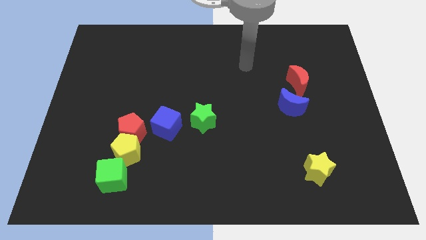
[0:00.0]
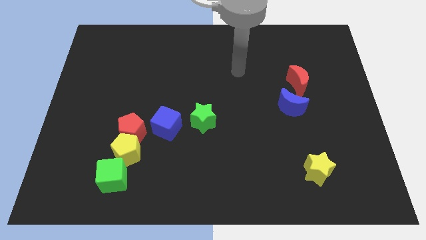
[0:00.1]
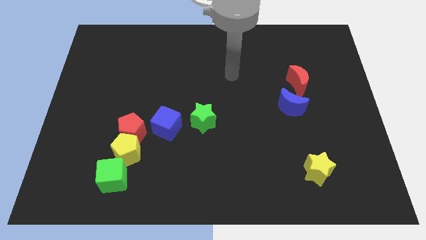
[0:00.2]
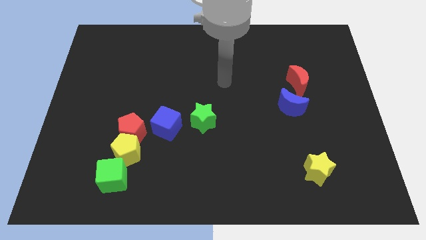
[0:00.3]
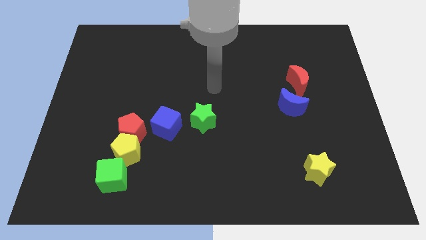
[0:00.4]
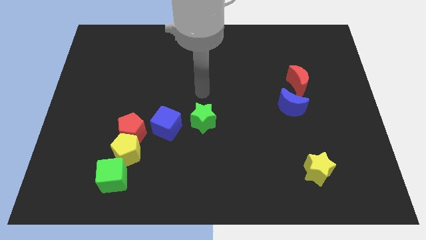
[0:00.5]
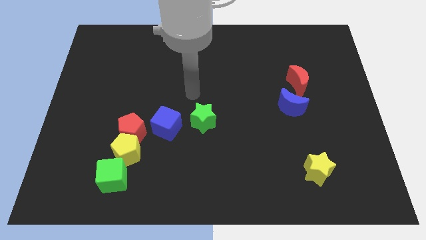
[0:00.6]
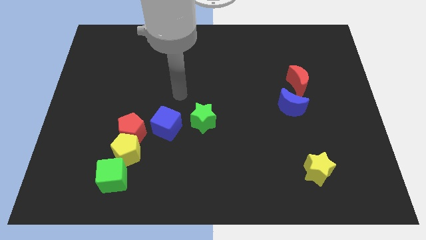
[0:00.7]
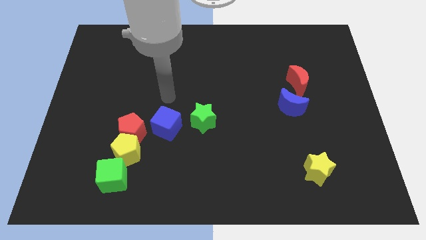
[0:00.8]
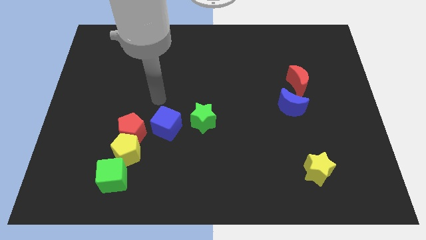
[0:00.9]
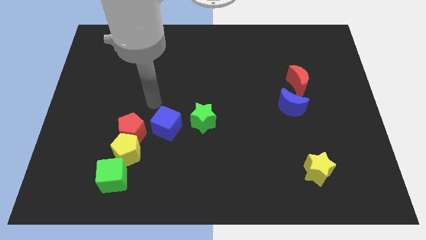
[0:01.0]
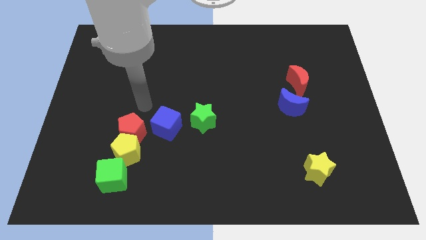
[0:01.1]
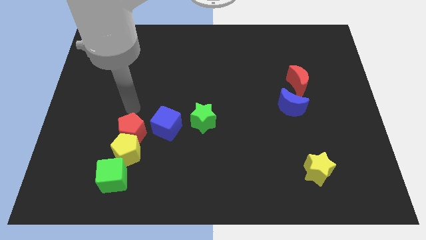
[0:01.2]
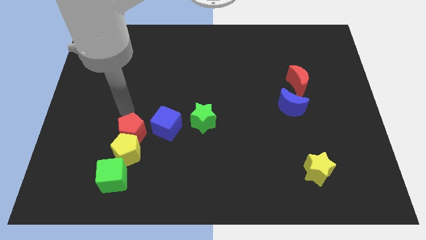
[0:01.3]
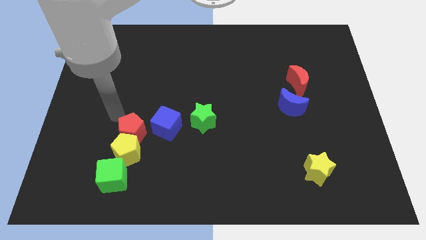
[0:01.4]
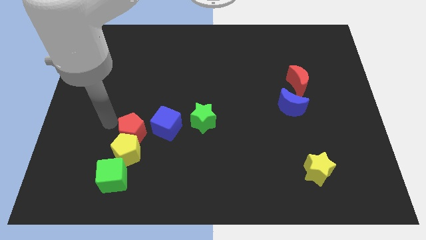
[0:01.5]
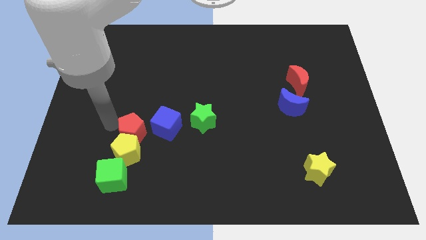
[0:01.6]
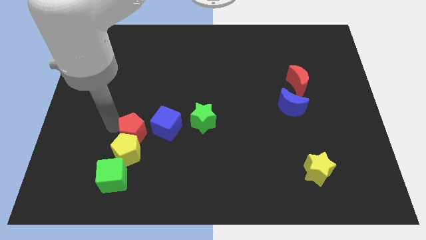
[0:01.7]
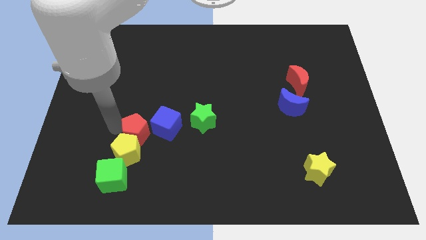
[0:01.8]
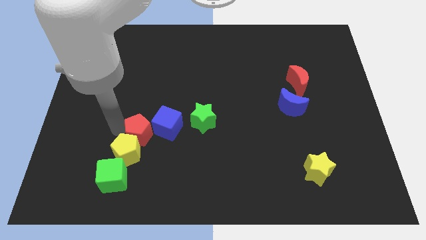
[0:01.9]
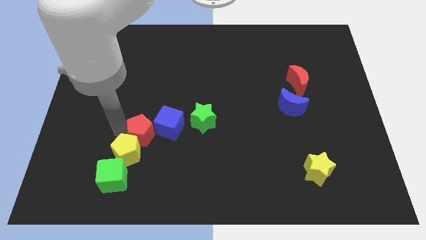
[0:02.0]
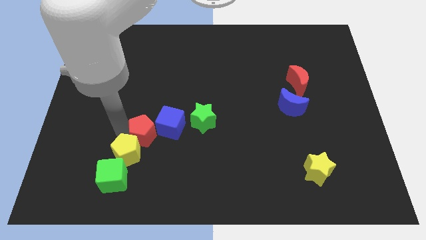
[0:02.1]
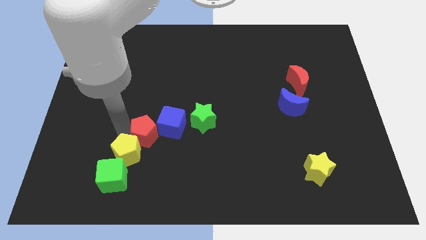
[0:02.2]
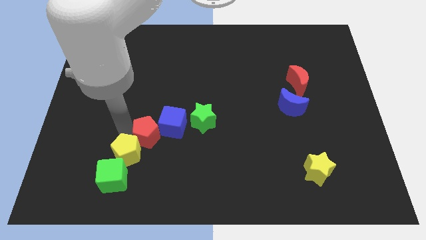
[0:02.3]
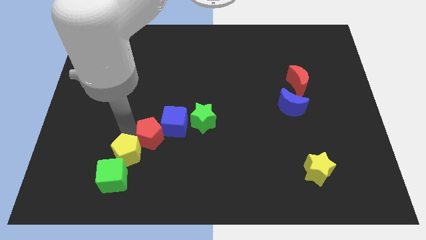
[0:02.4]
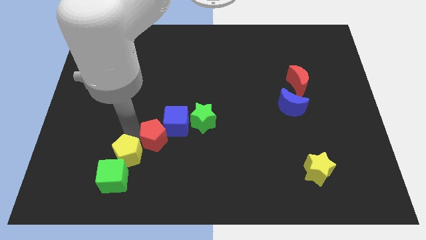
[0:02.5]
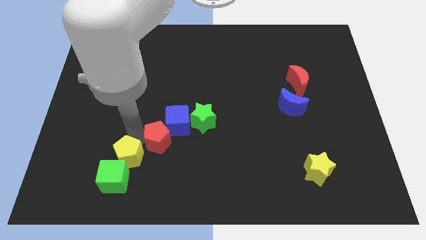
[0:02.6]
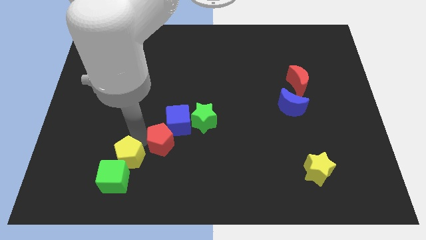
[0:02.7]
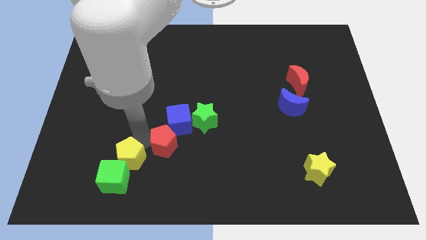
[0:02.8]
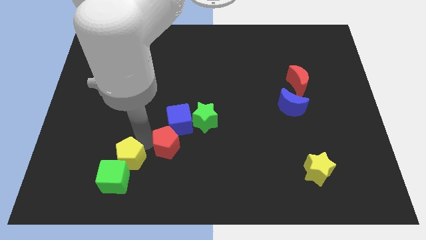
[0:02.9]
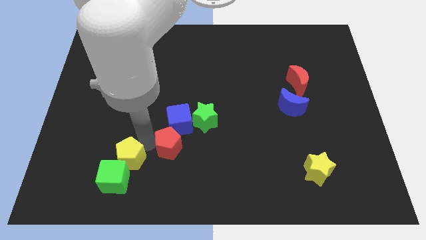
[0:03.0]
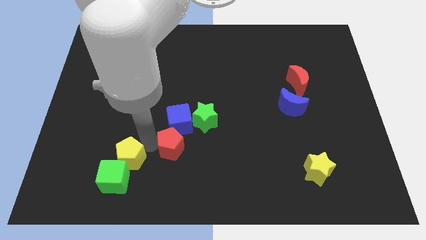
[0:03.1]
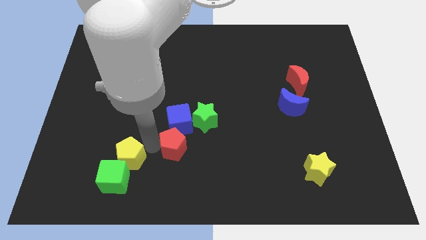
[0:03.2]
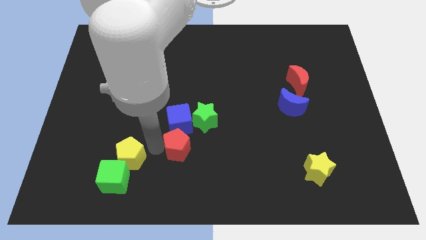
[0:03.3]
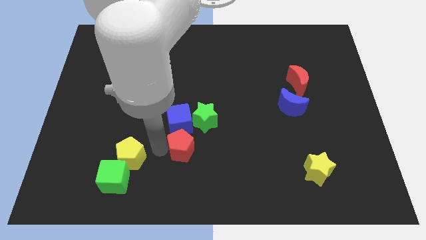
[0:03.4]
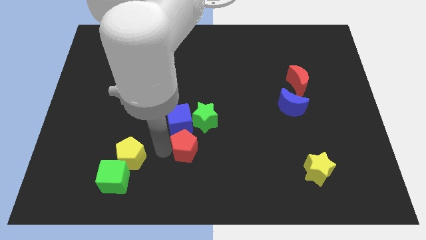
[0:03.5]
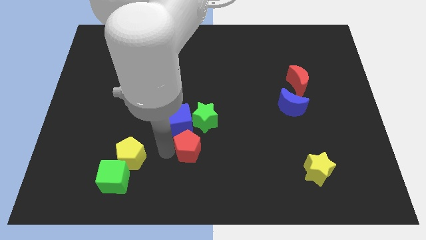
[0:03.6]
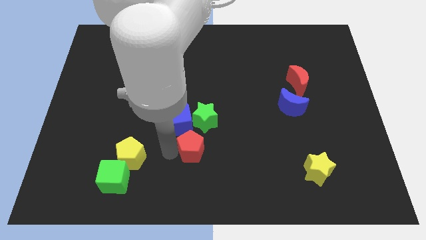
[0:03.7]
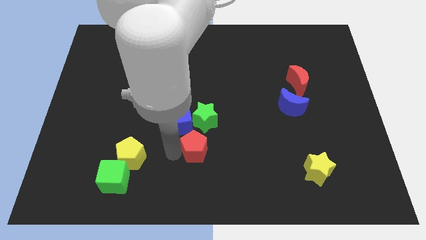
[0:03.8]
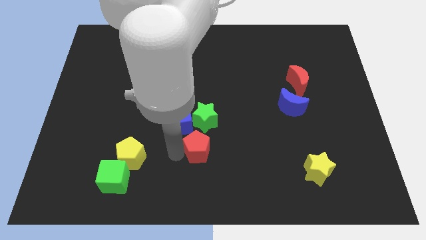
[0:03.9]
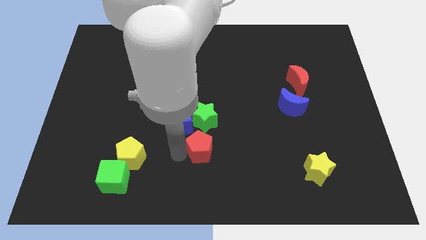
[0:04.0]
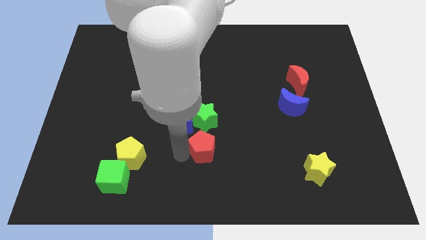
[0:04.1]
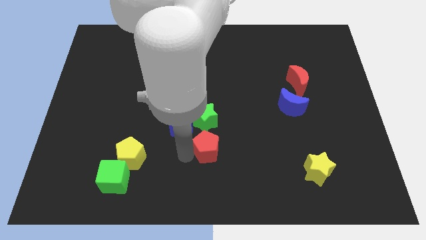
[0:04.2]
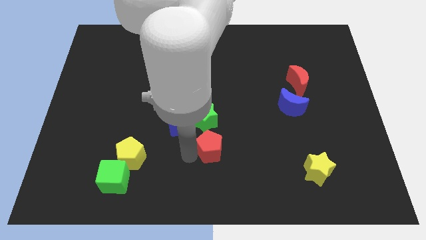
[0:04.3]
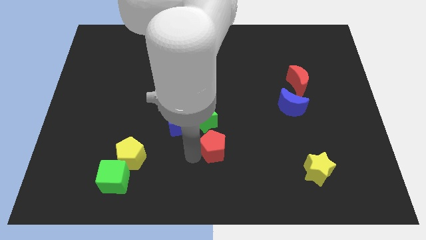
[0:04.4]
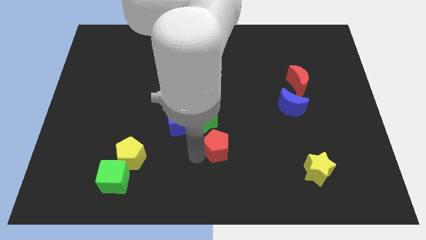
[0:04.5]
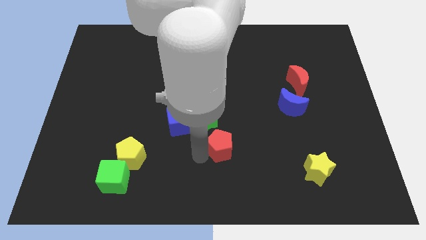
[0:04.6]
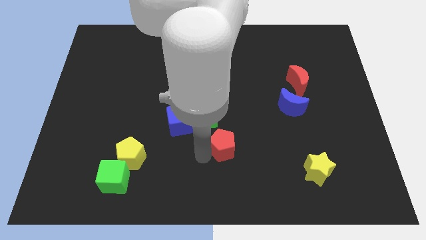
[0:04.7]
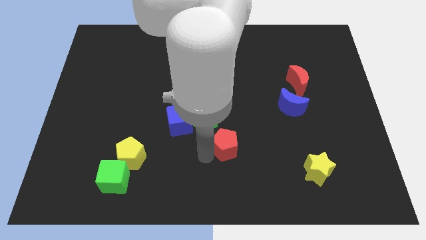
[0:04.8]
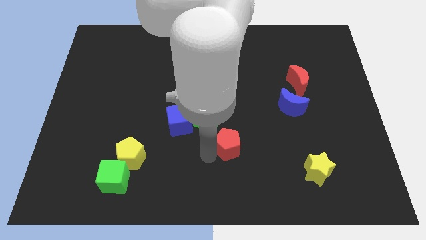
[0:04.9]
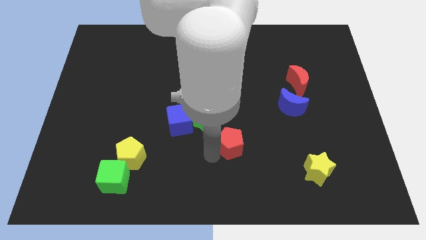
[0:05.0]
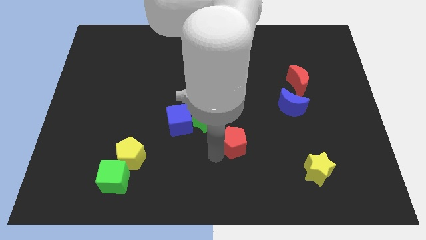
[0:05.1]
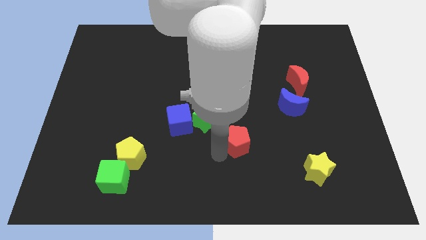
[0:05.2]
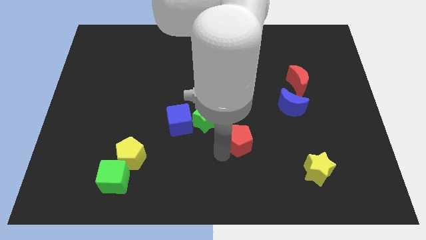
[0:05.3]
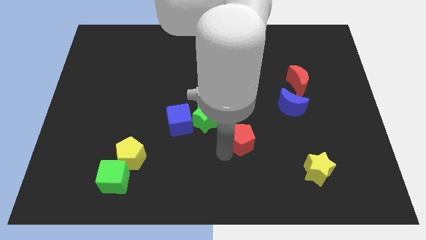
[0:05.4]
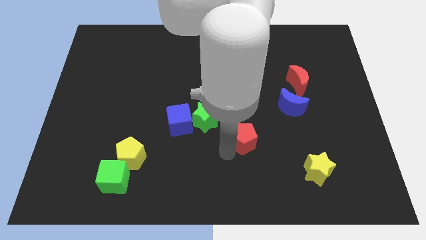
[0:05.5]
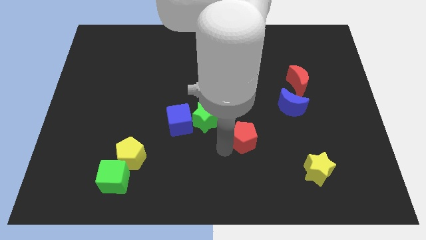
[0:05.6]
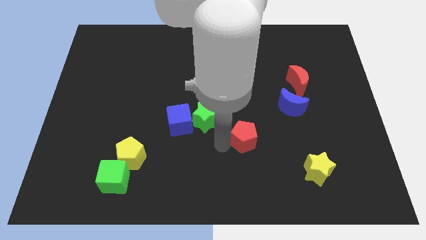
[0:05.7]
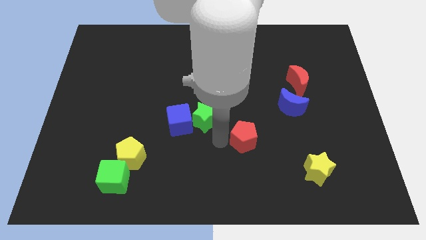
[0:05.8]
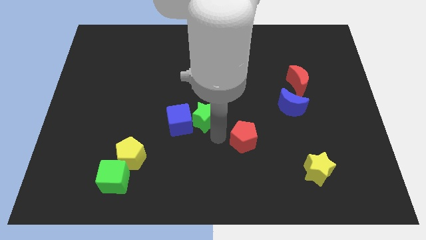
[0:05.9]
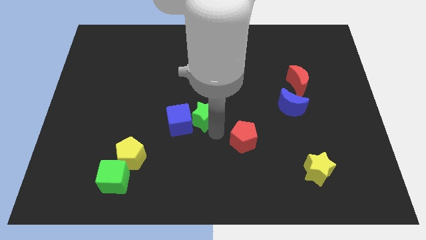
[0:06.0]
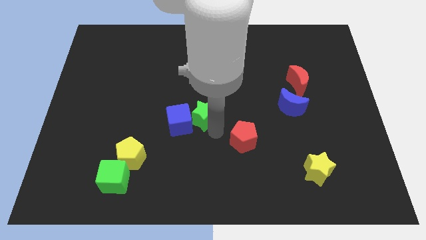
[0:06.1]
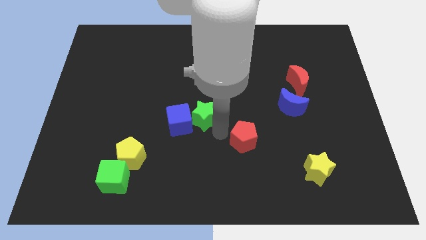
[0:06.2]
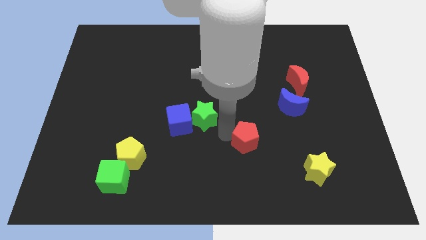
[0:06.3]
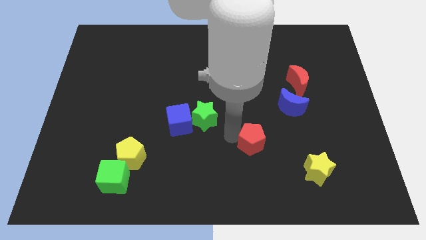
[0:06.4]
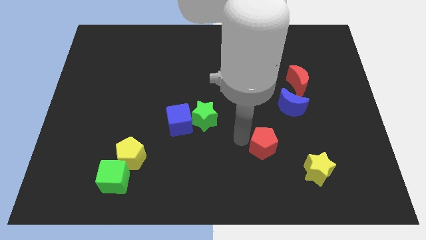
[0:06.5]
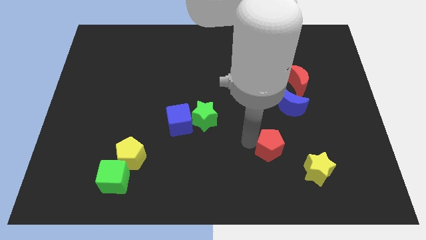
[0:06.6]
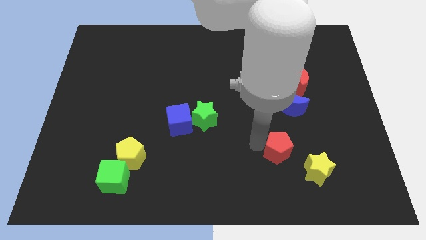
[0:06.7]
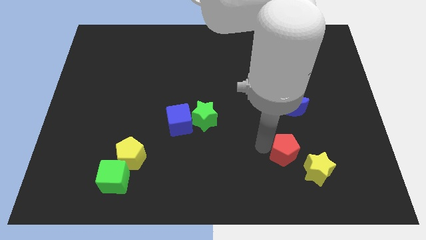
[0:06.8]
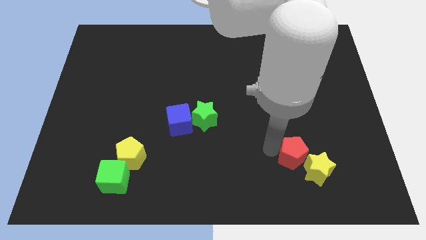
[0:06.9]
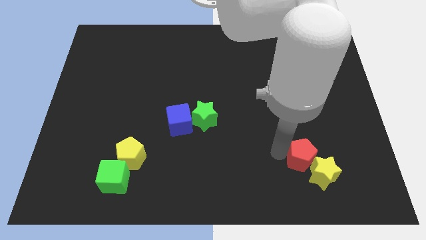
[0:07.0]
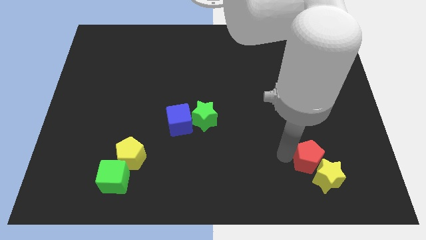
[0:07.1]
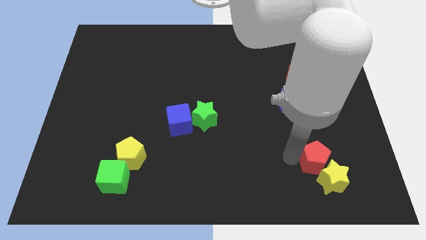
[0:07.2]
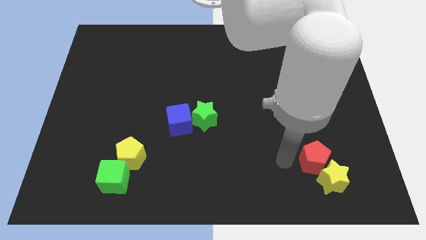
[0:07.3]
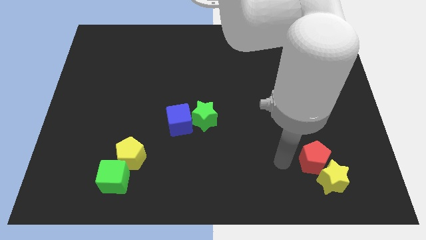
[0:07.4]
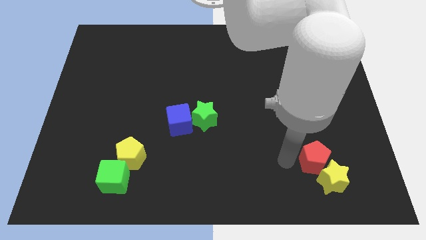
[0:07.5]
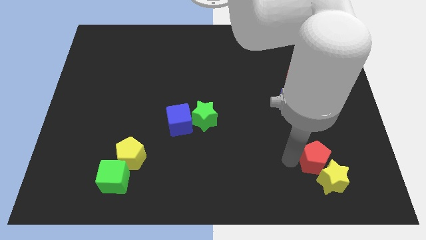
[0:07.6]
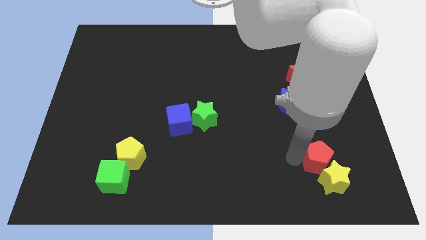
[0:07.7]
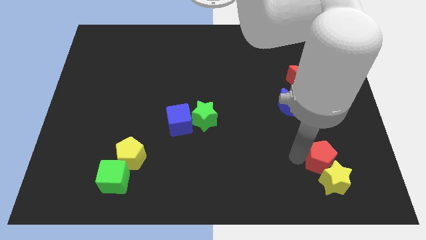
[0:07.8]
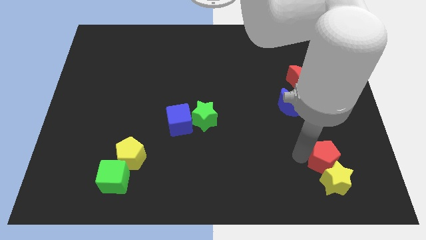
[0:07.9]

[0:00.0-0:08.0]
slide the red pentagon diagonally up and to the right of the yellow star
